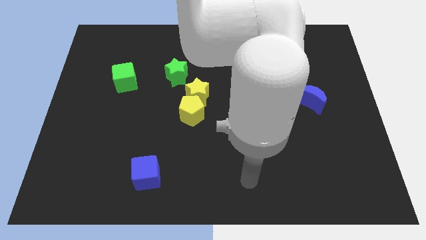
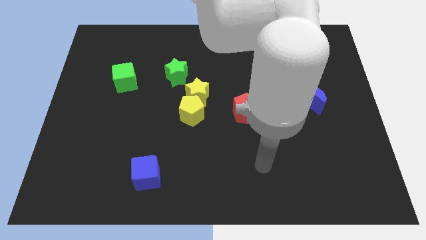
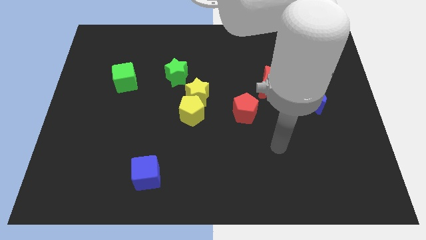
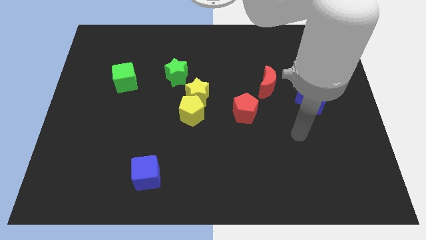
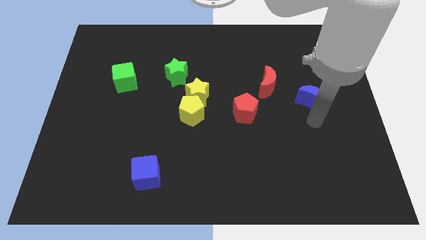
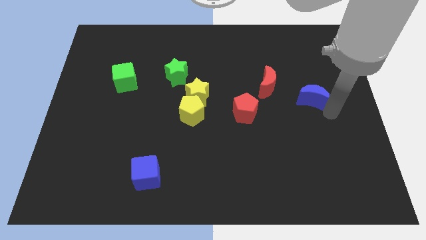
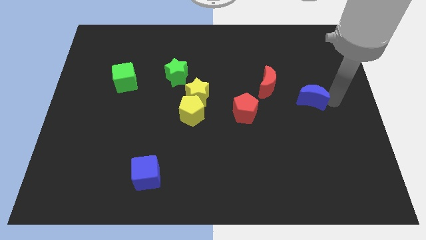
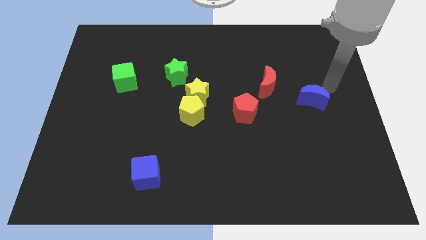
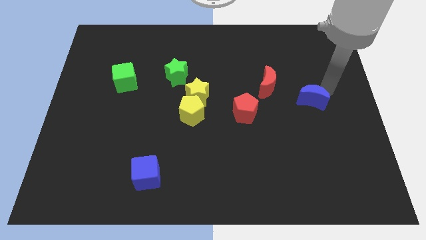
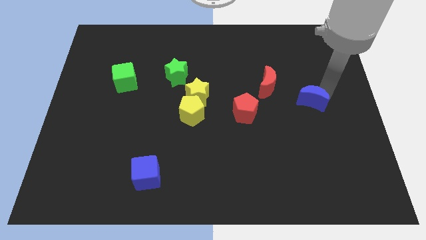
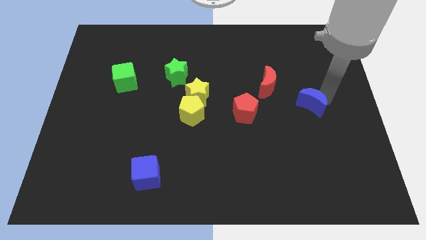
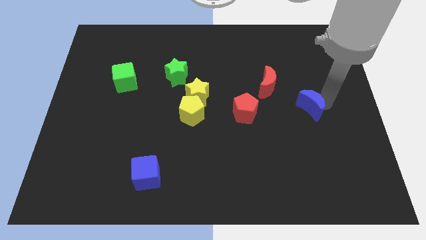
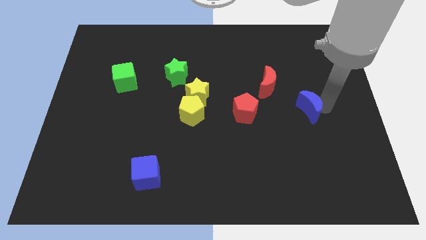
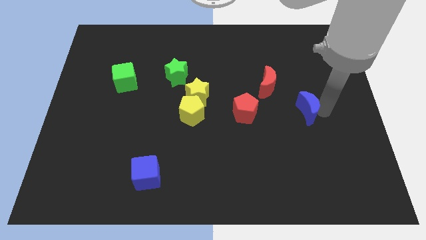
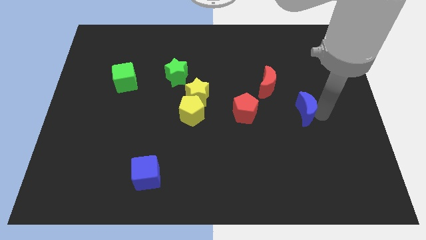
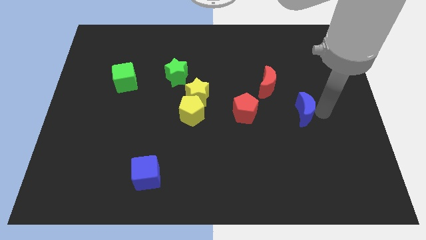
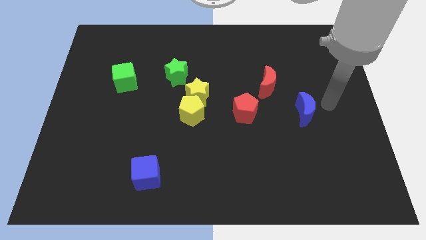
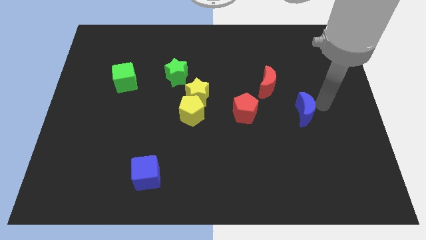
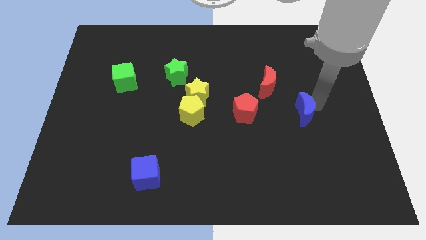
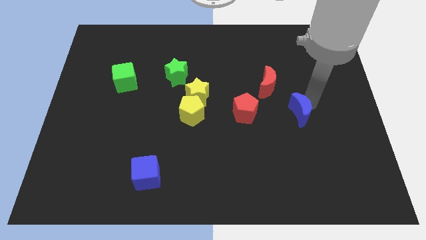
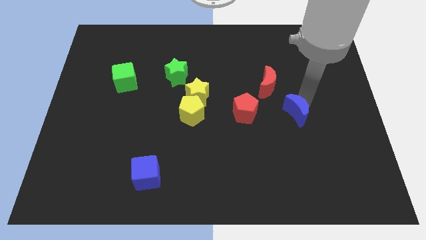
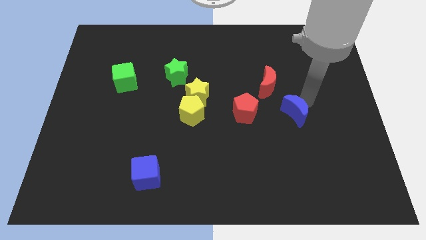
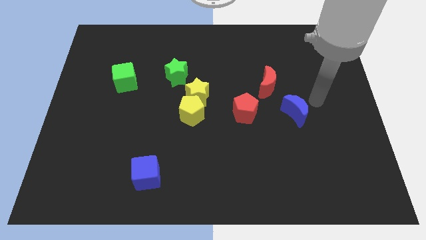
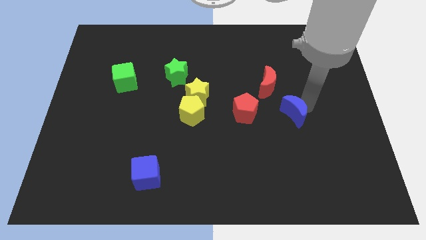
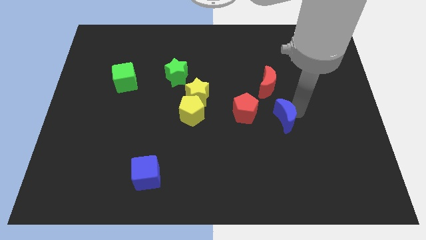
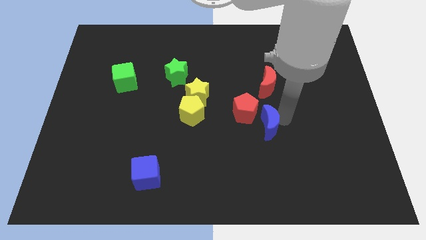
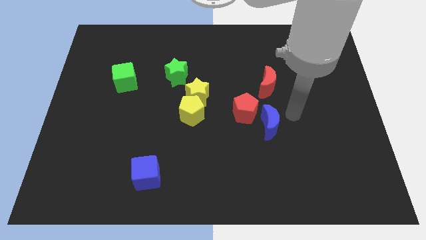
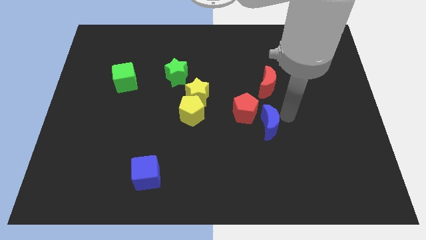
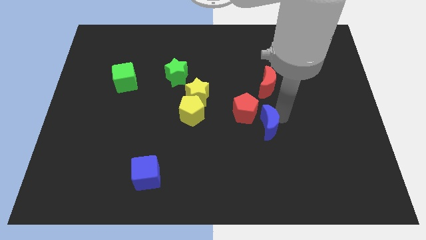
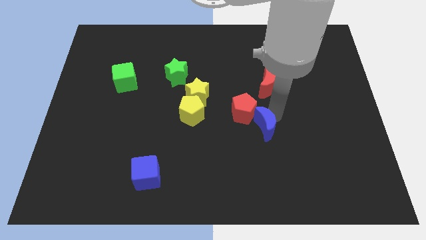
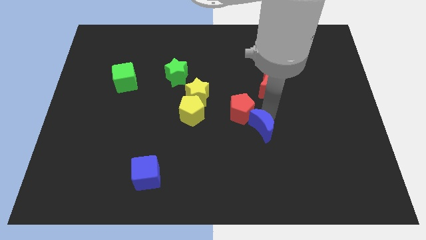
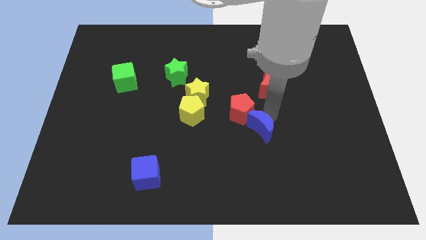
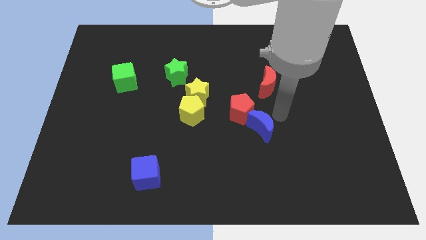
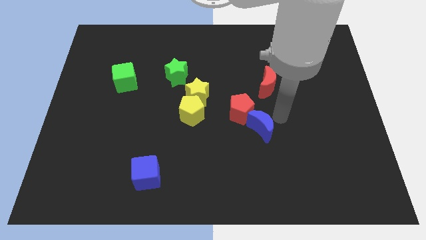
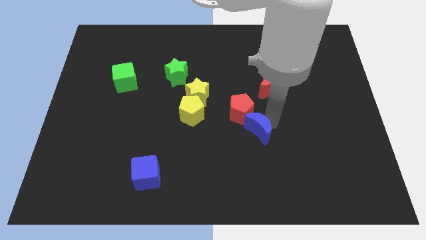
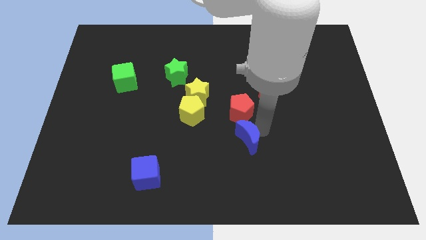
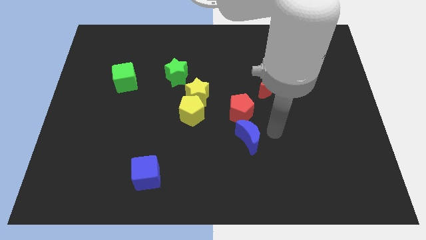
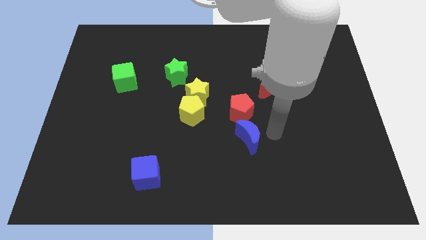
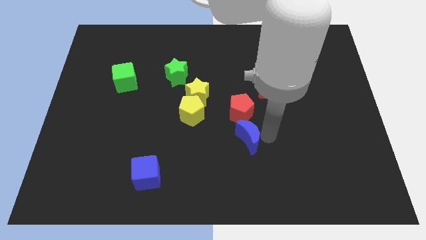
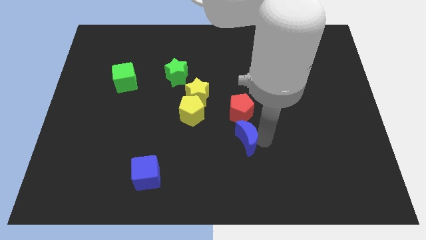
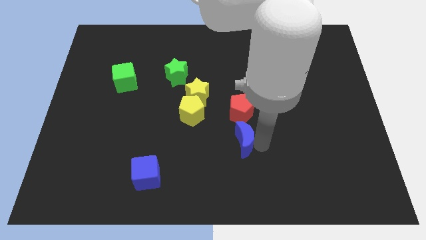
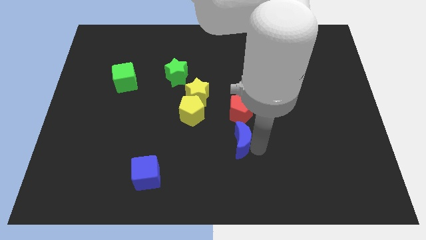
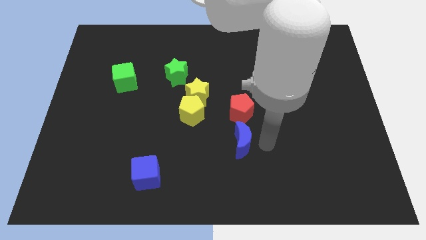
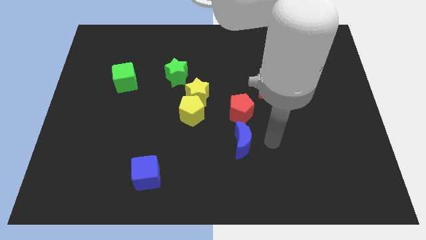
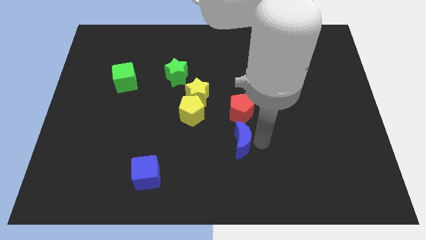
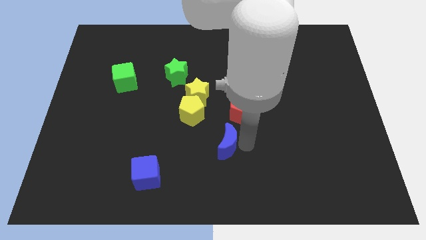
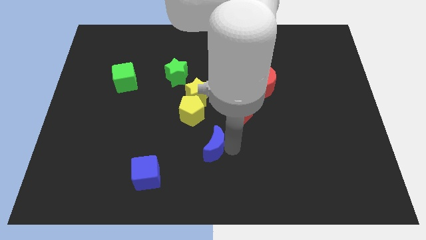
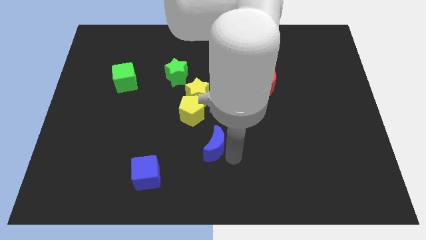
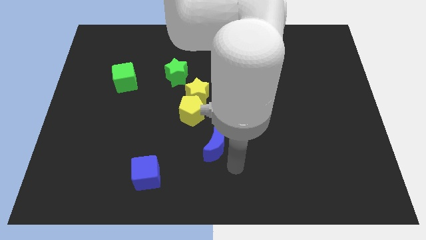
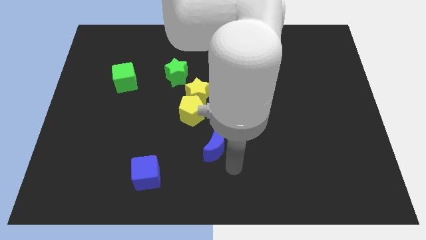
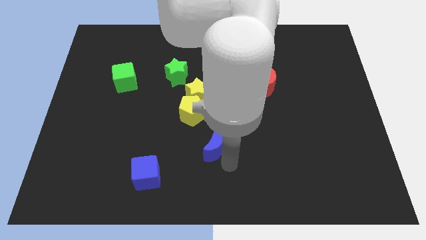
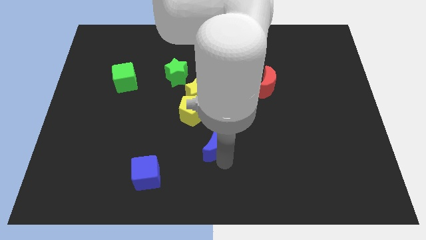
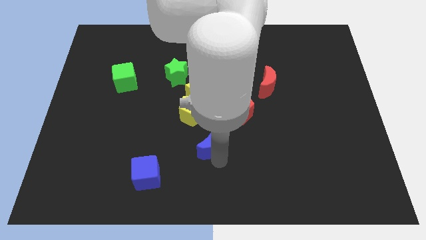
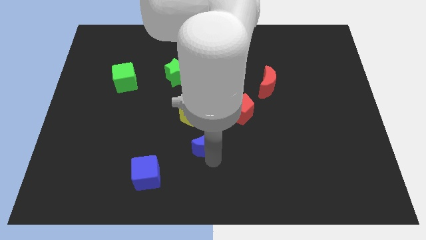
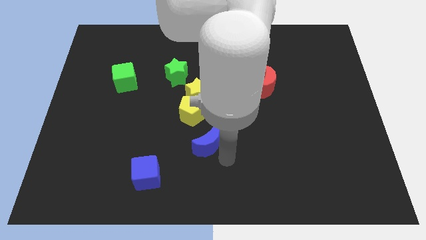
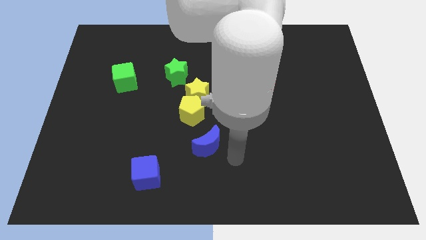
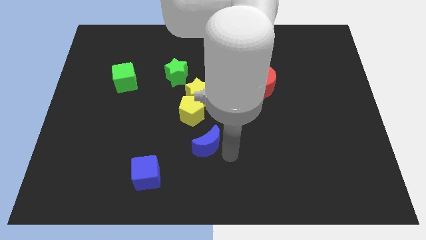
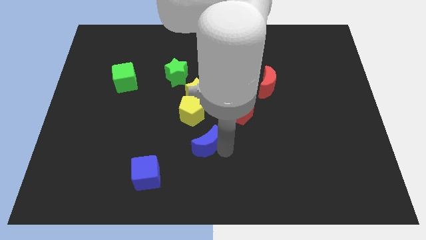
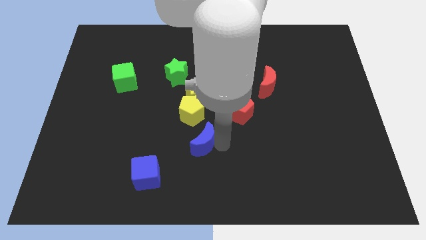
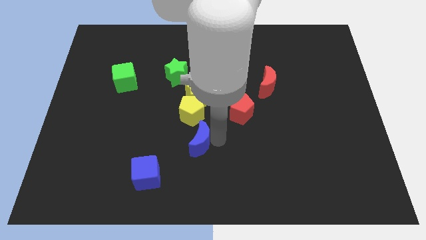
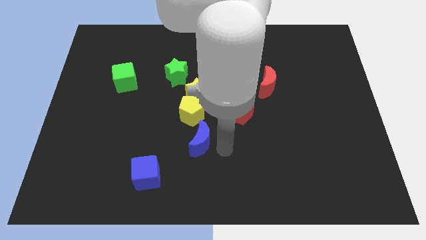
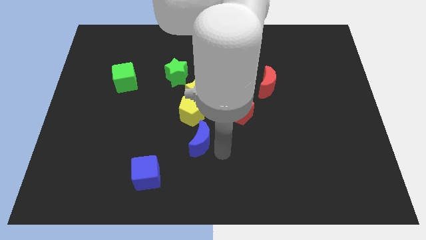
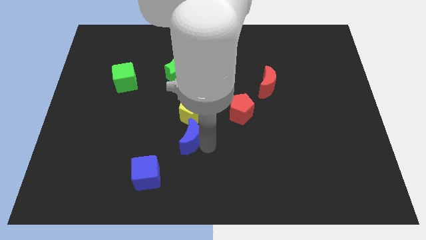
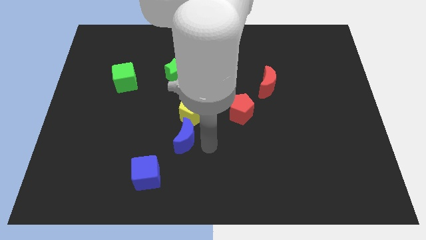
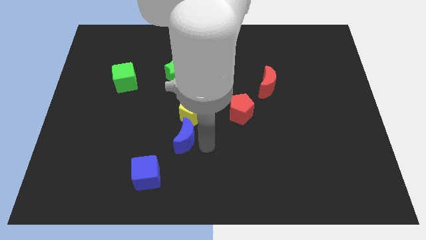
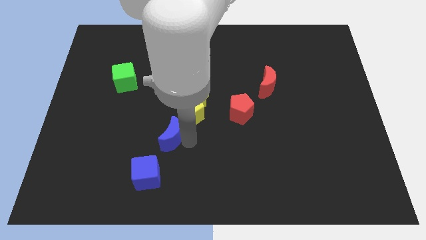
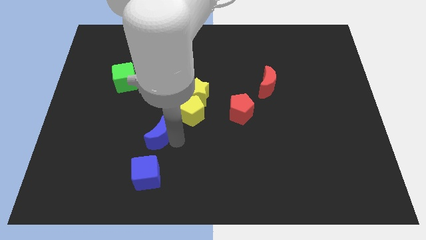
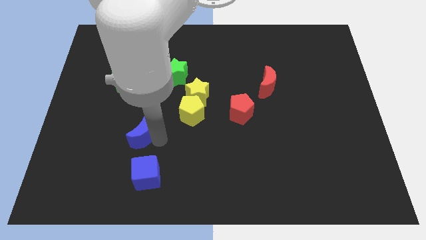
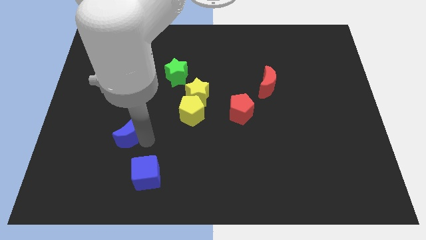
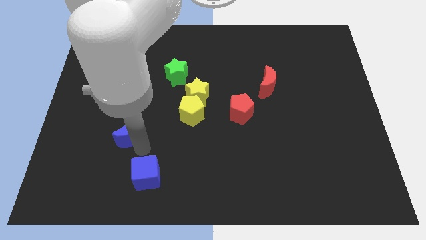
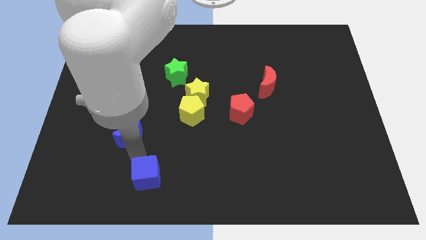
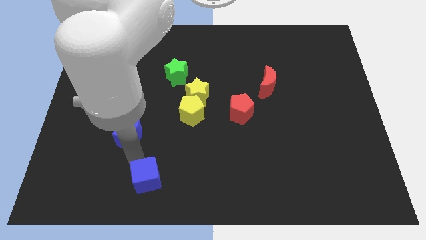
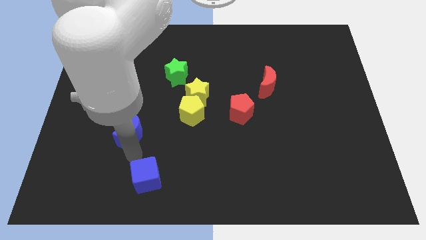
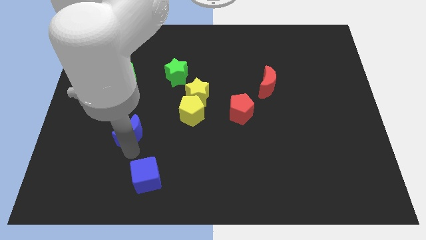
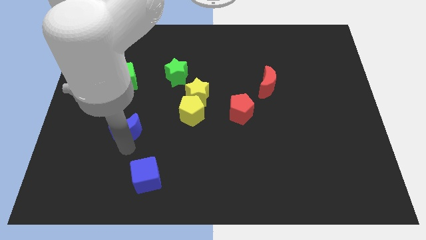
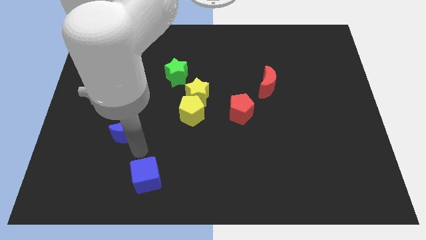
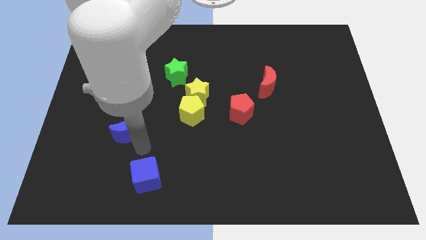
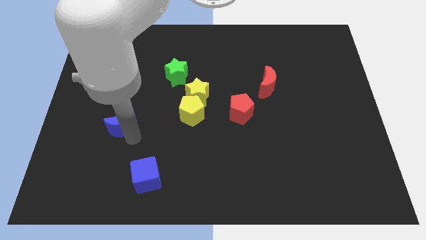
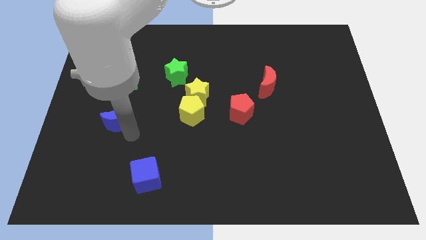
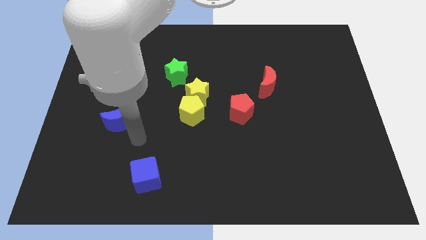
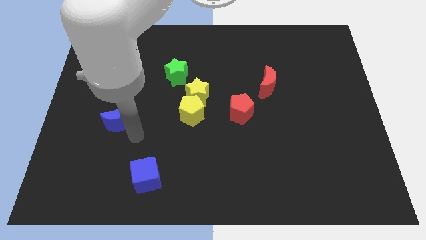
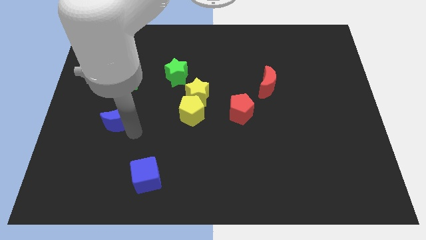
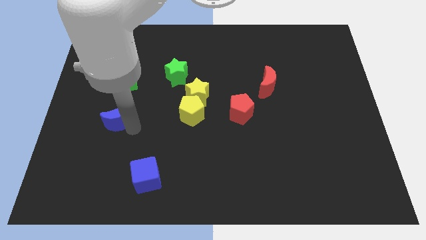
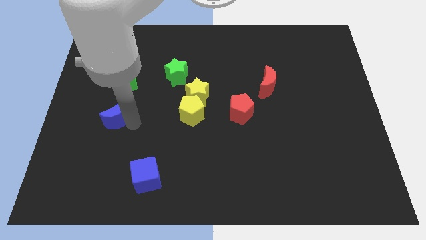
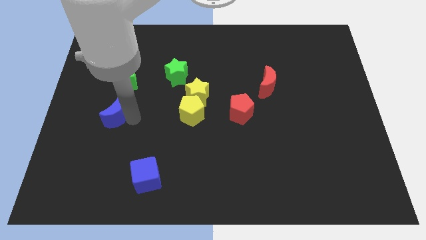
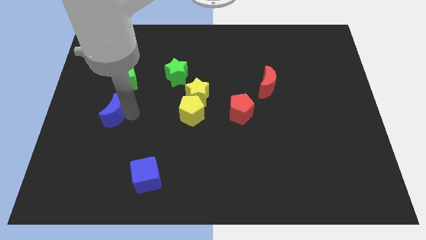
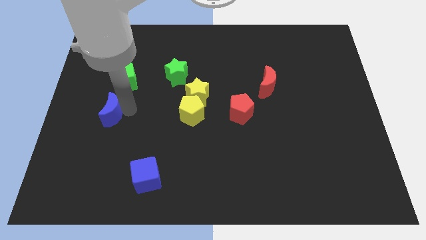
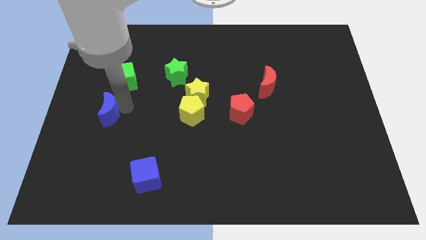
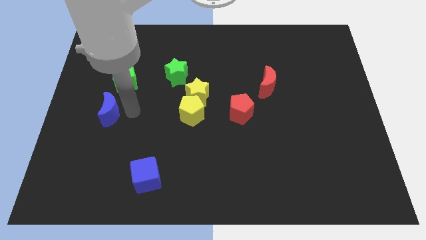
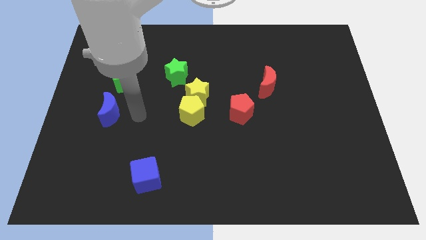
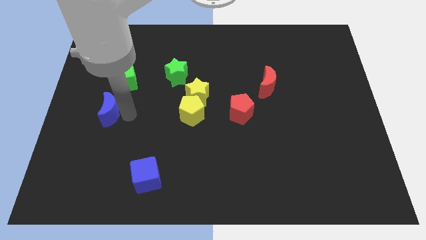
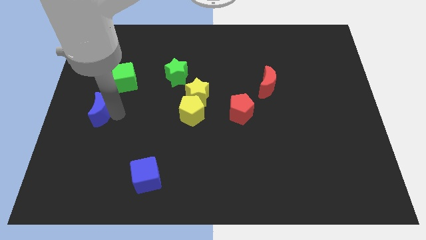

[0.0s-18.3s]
slide the blue moon to the left side
